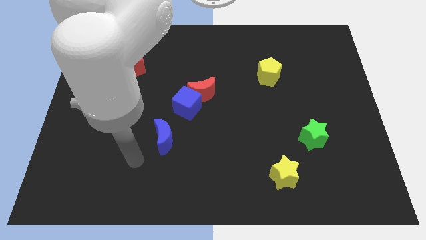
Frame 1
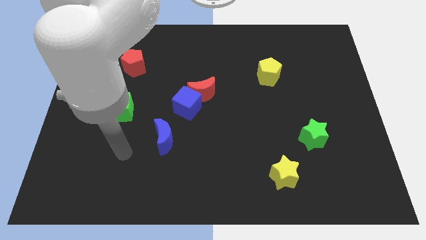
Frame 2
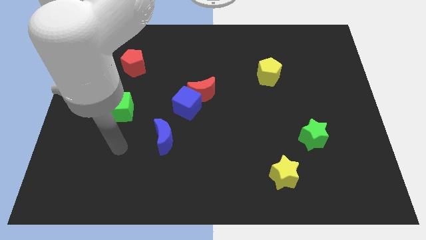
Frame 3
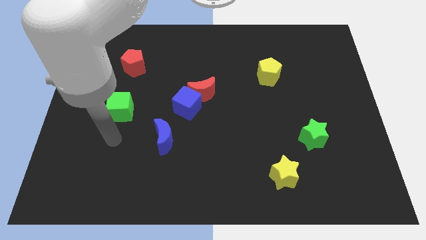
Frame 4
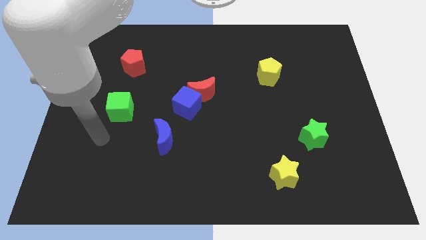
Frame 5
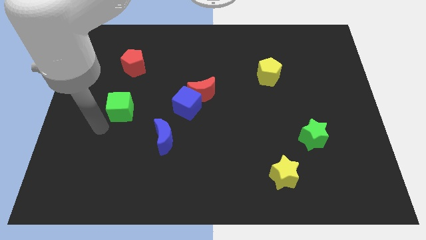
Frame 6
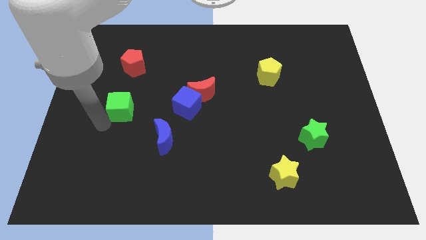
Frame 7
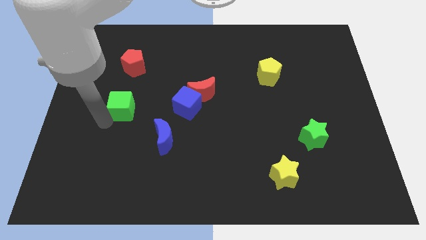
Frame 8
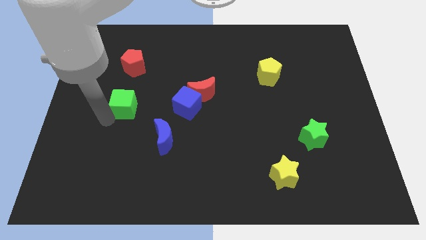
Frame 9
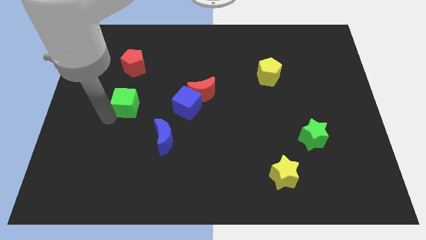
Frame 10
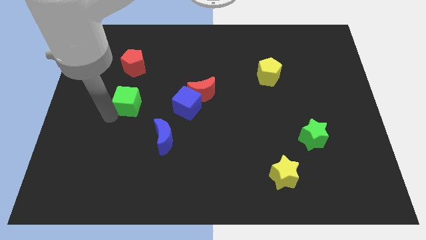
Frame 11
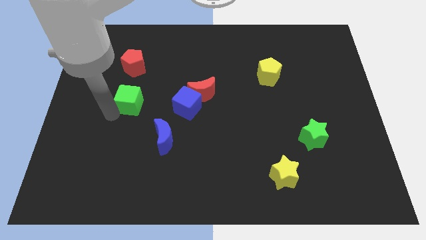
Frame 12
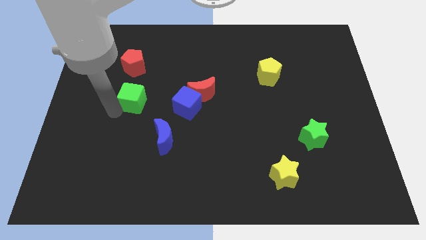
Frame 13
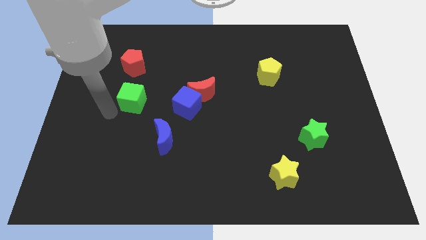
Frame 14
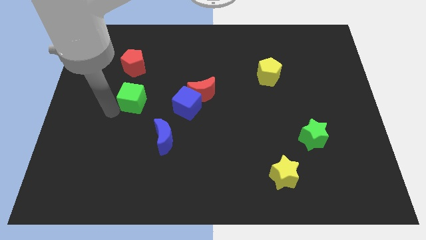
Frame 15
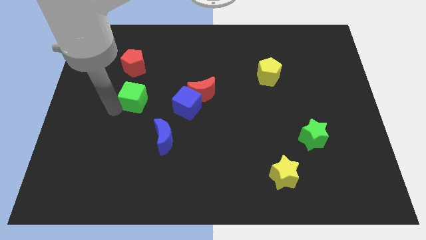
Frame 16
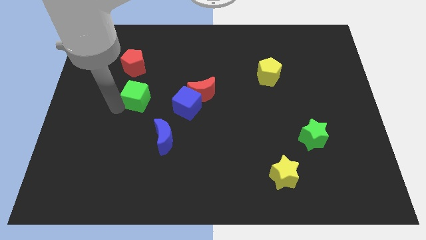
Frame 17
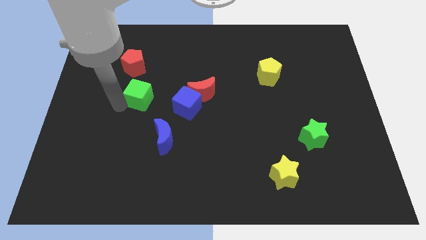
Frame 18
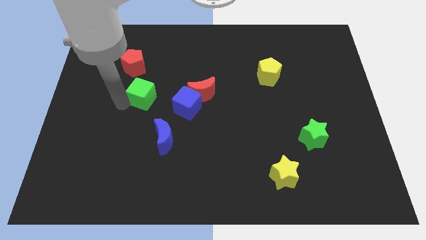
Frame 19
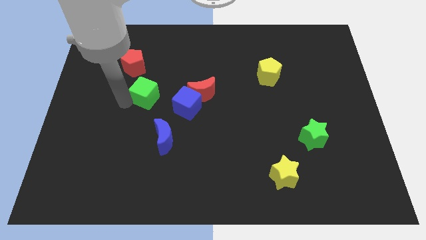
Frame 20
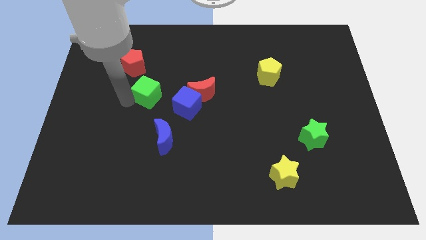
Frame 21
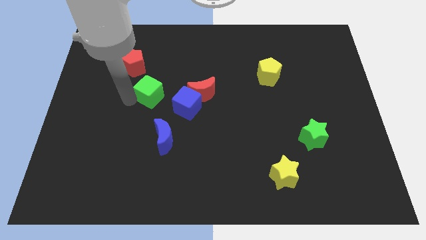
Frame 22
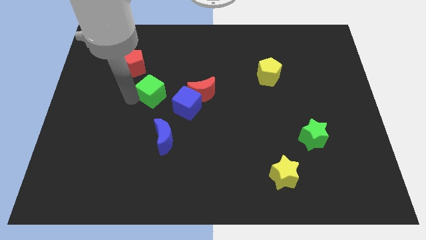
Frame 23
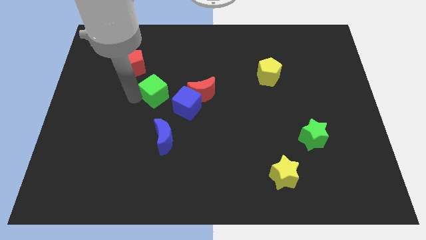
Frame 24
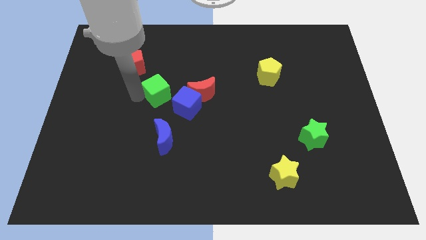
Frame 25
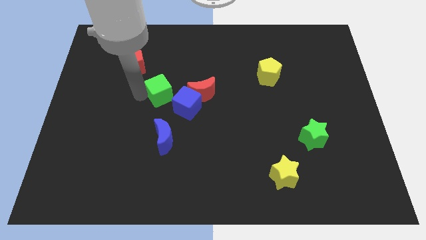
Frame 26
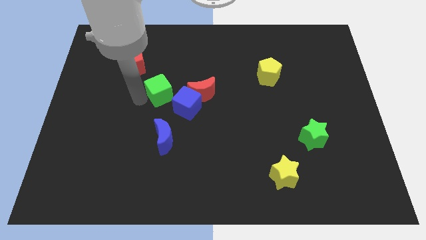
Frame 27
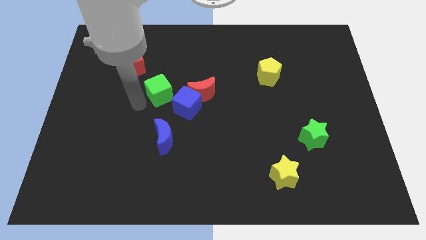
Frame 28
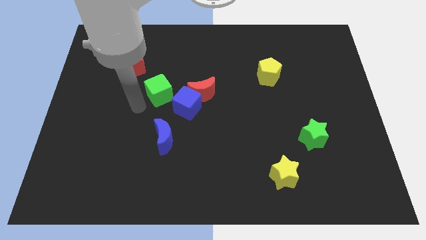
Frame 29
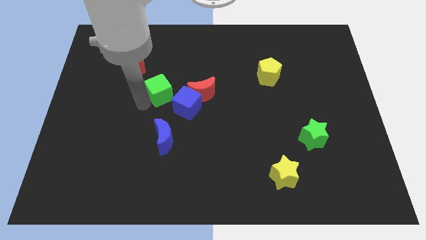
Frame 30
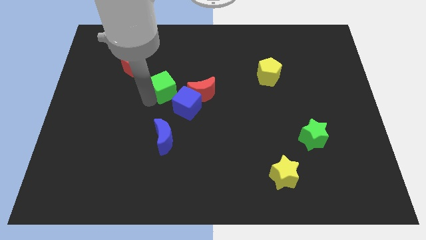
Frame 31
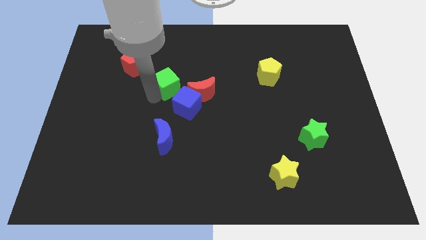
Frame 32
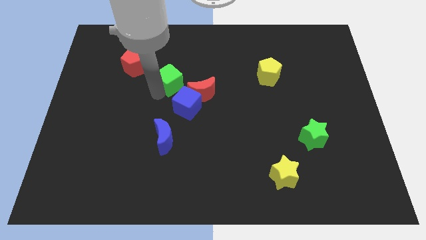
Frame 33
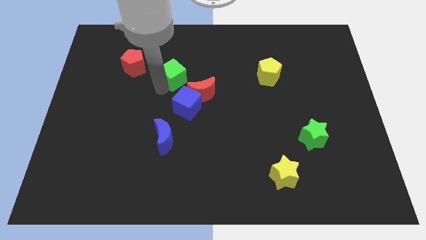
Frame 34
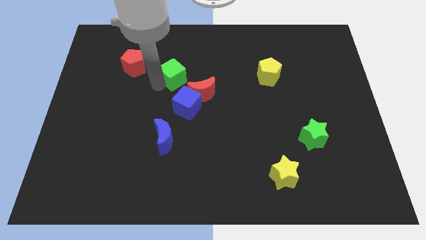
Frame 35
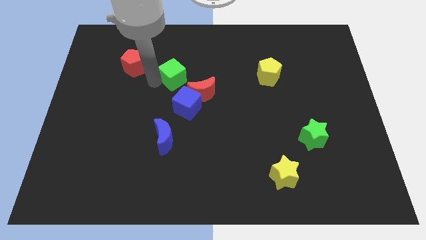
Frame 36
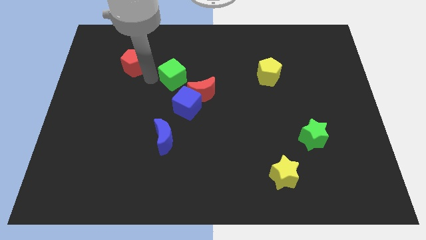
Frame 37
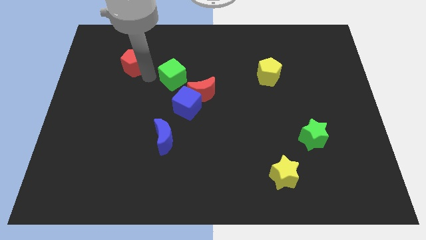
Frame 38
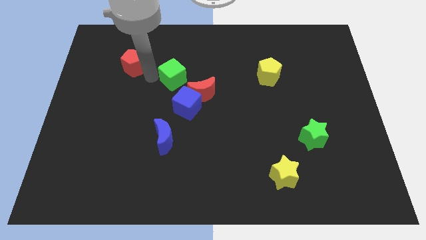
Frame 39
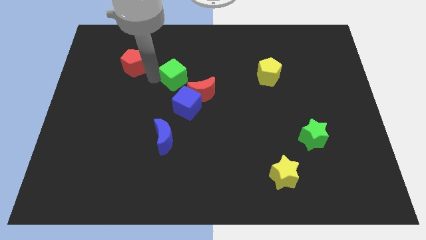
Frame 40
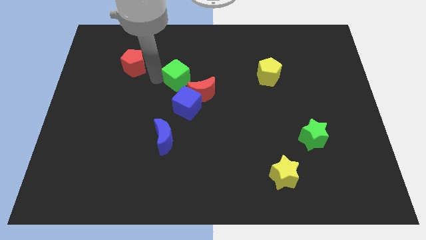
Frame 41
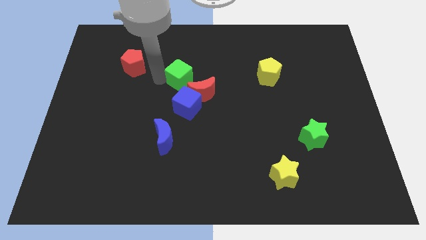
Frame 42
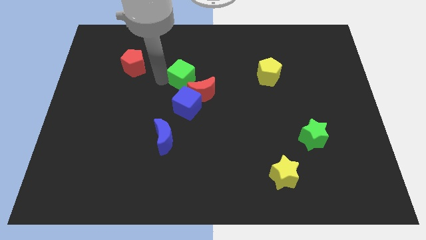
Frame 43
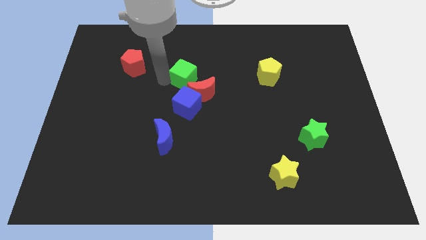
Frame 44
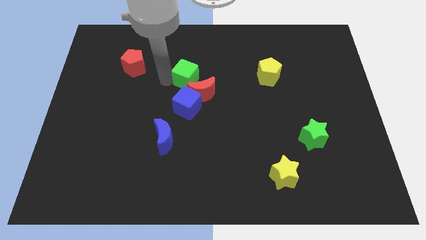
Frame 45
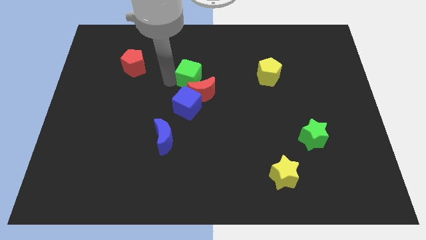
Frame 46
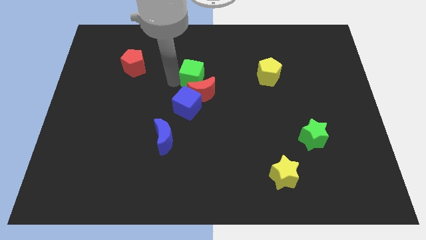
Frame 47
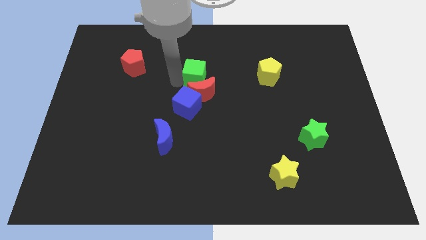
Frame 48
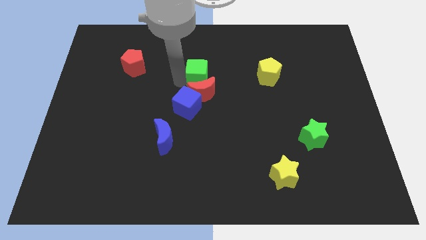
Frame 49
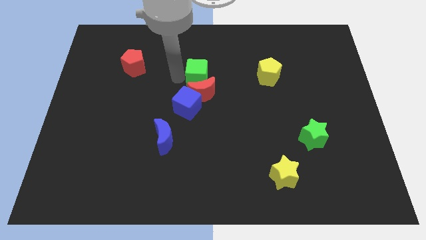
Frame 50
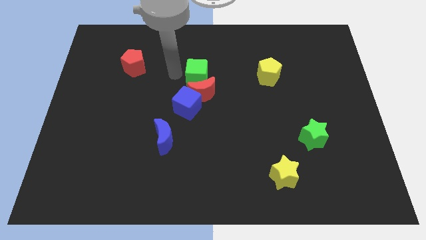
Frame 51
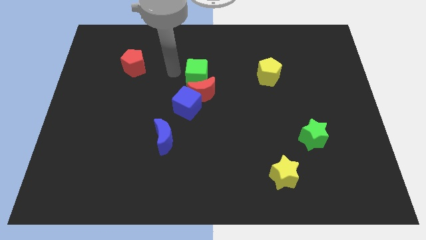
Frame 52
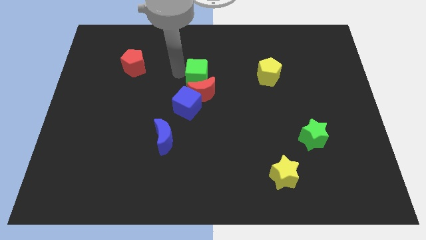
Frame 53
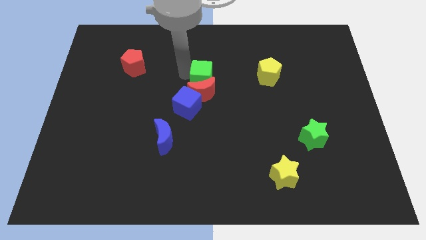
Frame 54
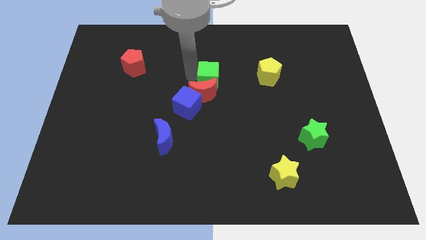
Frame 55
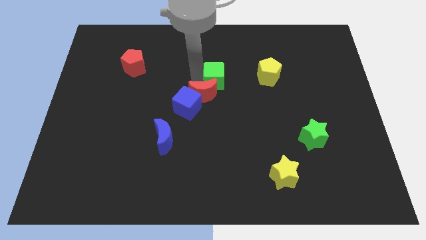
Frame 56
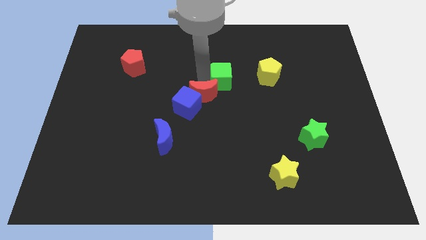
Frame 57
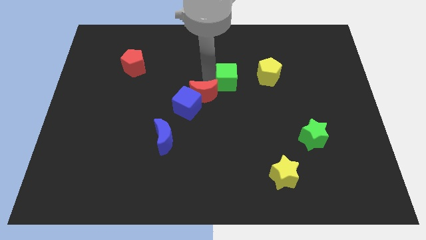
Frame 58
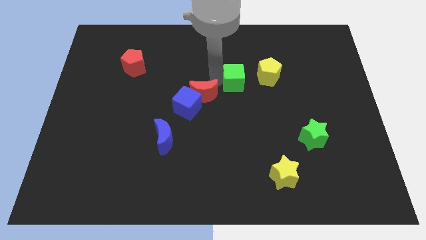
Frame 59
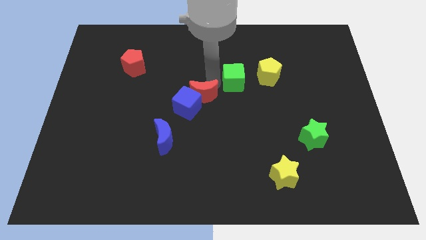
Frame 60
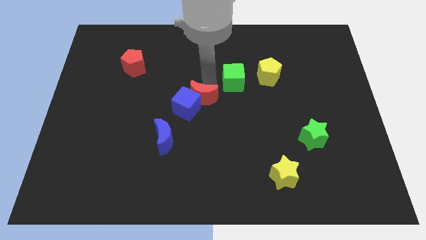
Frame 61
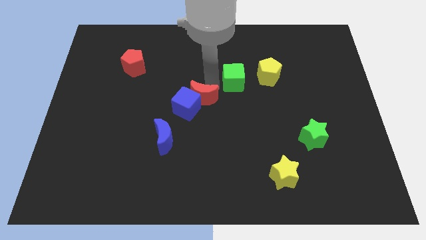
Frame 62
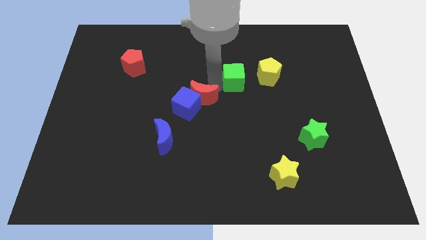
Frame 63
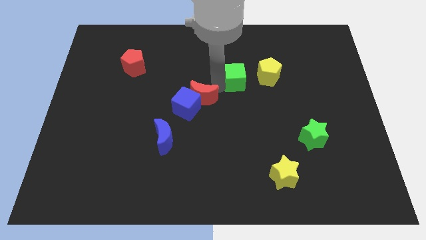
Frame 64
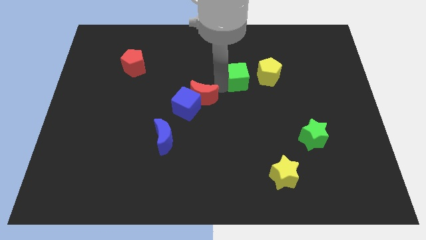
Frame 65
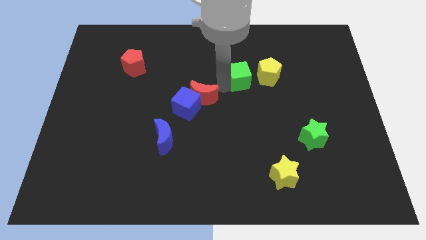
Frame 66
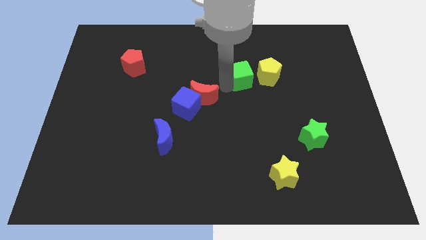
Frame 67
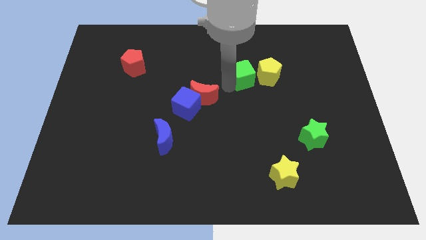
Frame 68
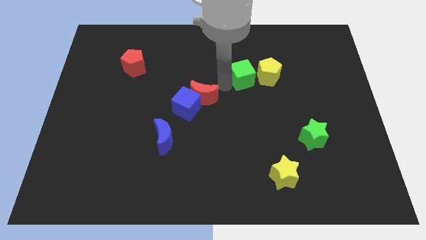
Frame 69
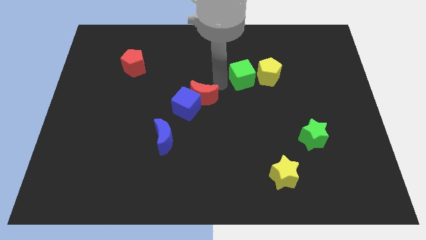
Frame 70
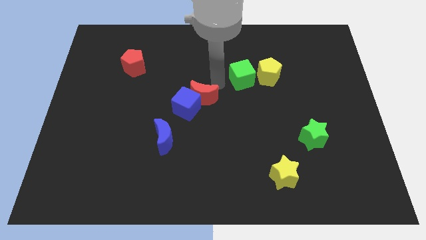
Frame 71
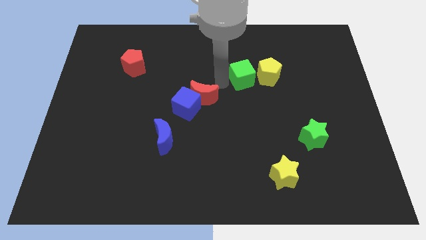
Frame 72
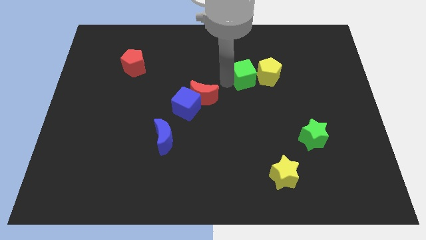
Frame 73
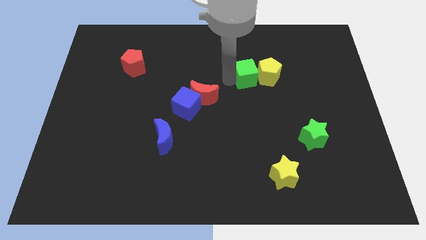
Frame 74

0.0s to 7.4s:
push the green cube next to the yellow pentagon
